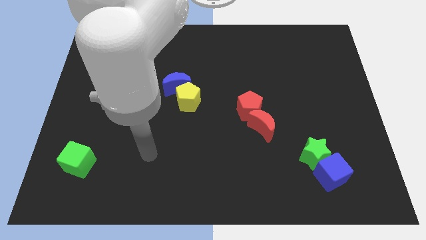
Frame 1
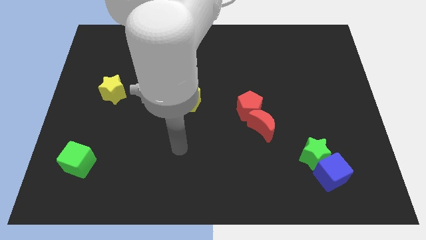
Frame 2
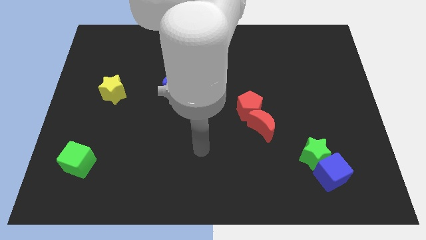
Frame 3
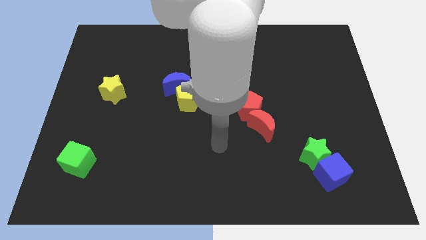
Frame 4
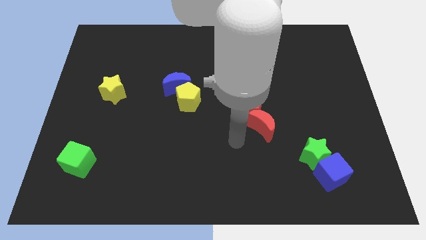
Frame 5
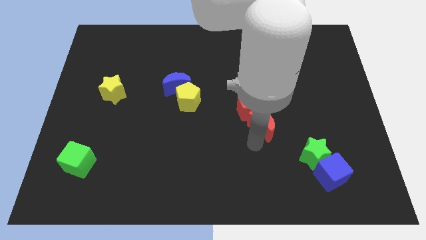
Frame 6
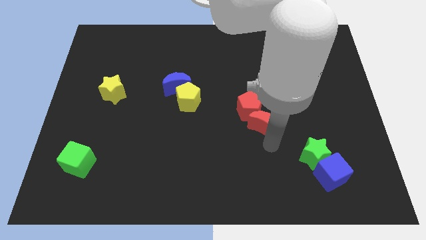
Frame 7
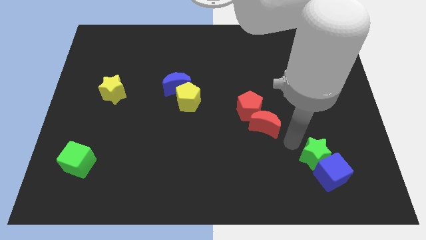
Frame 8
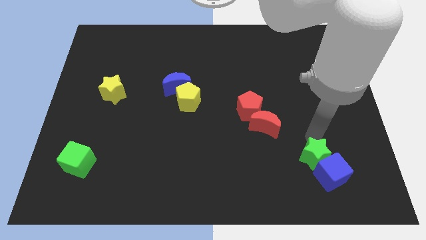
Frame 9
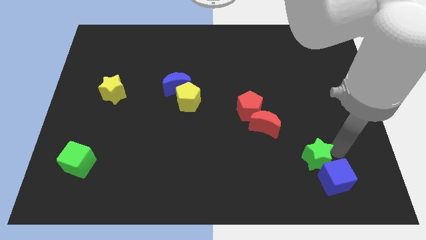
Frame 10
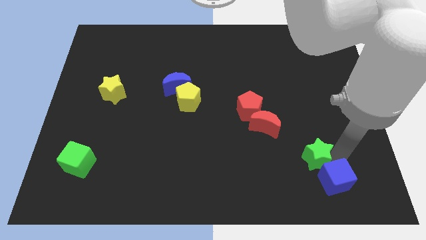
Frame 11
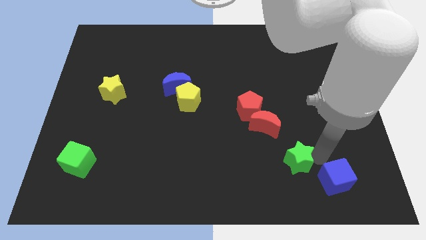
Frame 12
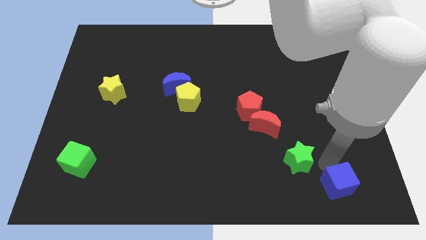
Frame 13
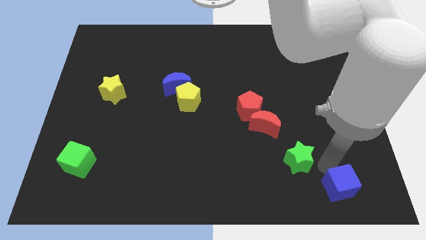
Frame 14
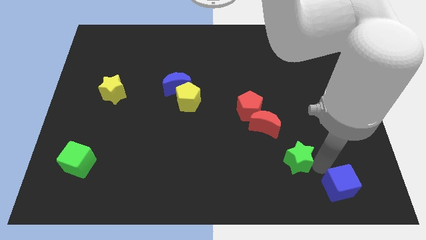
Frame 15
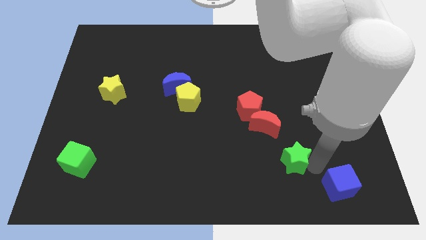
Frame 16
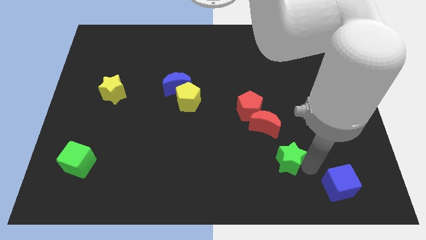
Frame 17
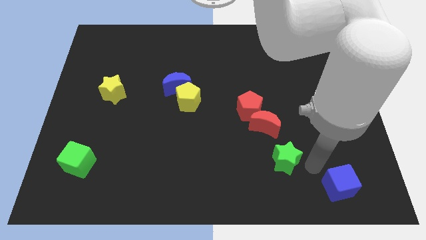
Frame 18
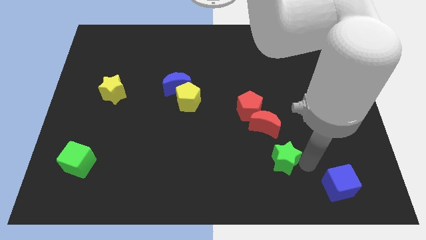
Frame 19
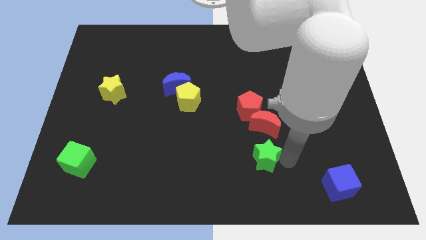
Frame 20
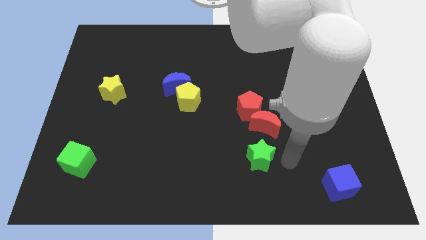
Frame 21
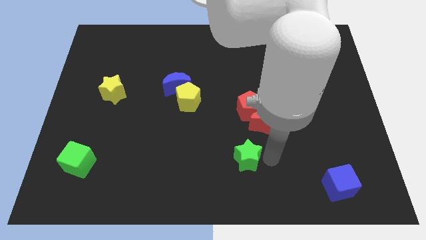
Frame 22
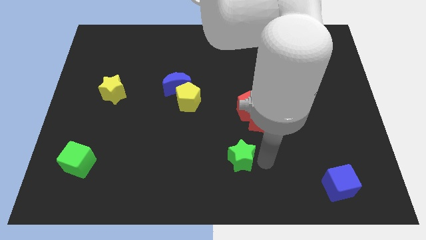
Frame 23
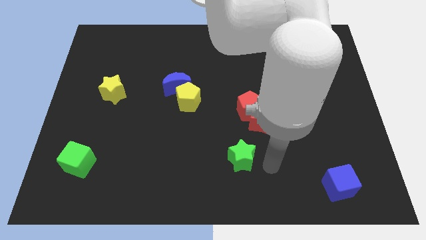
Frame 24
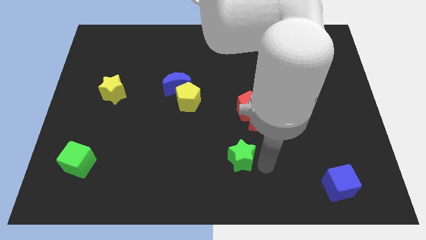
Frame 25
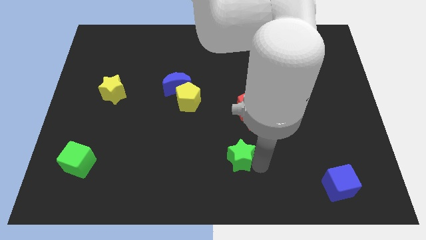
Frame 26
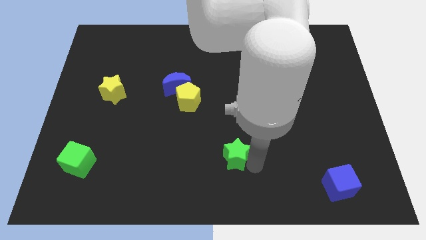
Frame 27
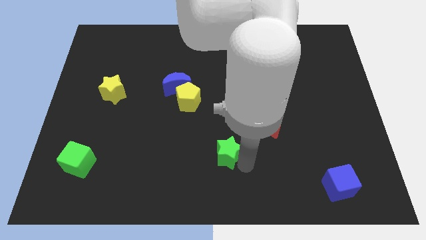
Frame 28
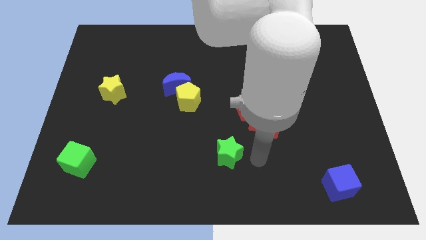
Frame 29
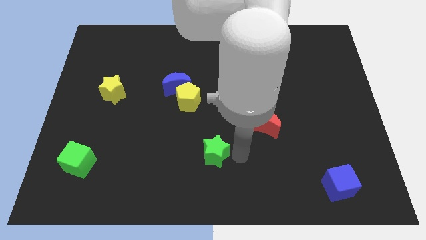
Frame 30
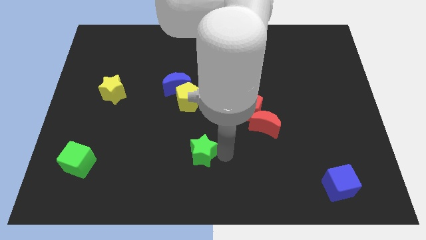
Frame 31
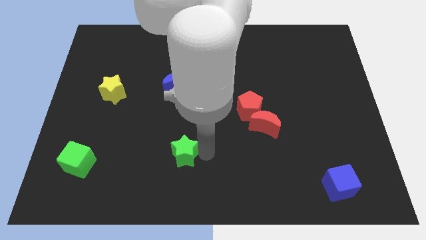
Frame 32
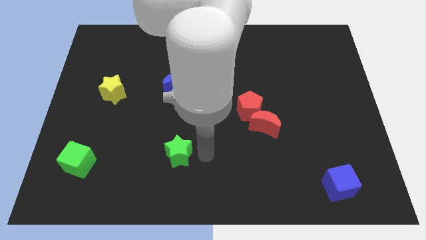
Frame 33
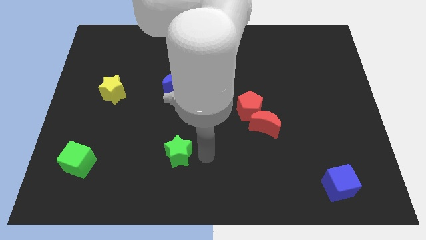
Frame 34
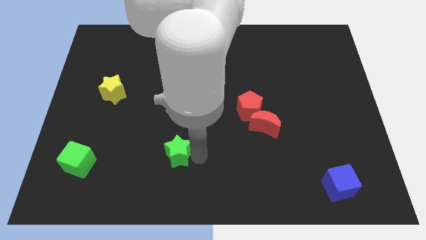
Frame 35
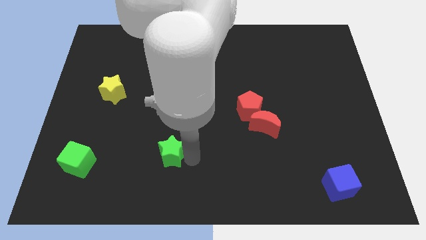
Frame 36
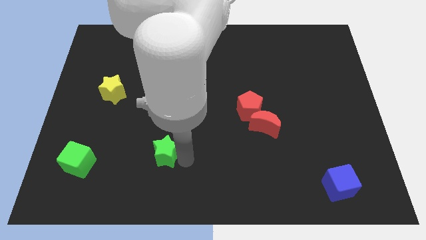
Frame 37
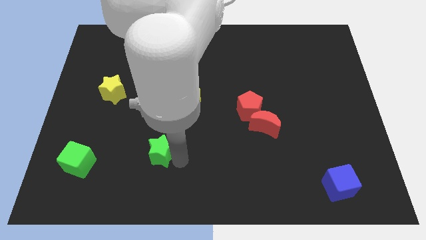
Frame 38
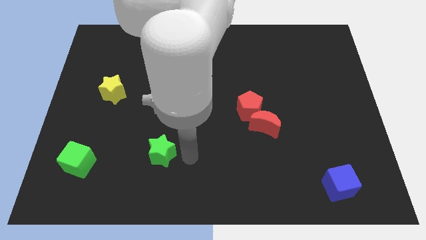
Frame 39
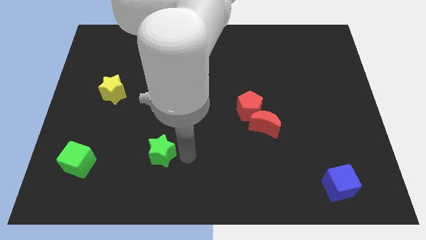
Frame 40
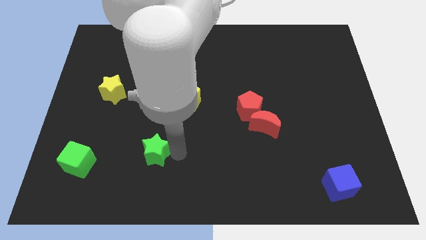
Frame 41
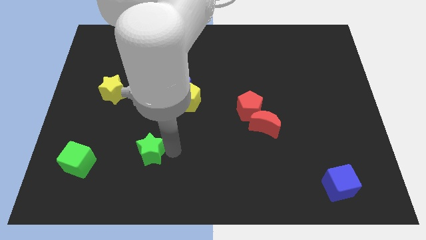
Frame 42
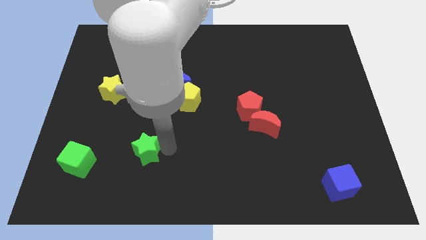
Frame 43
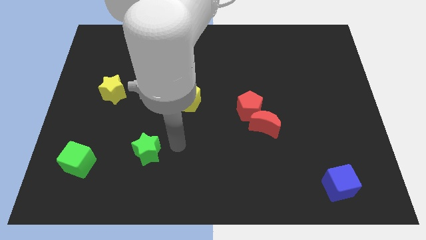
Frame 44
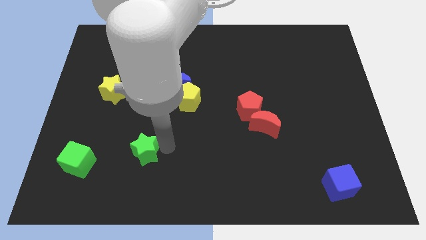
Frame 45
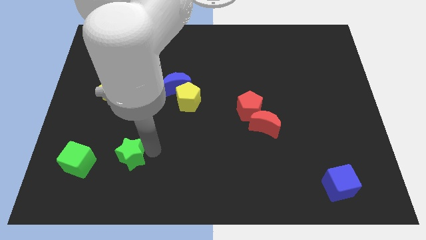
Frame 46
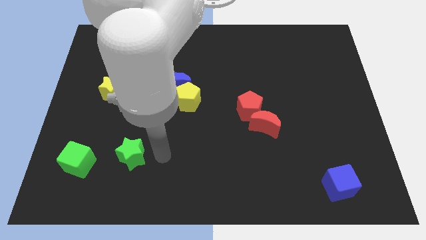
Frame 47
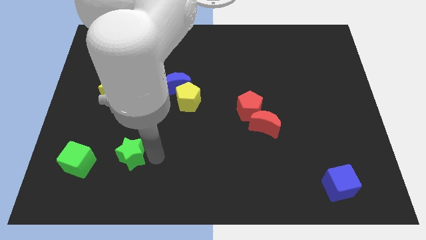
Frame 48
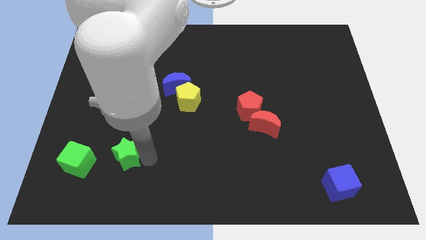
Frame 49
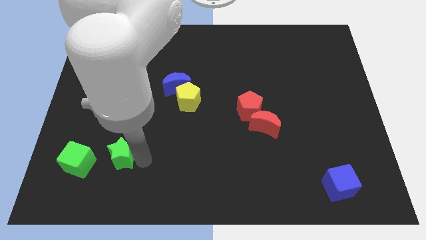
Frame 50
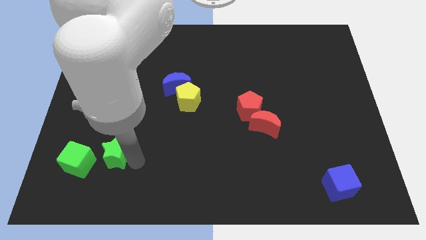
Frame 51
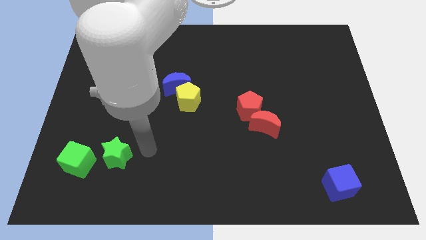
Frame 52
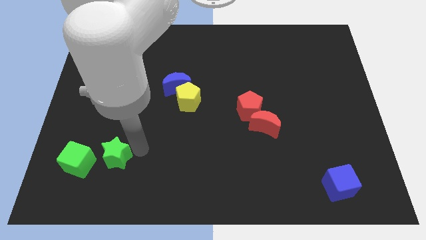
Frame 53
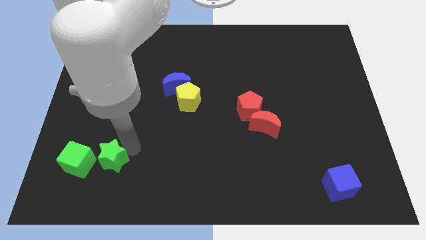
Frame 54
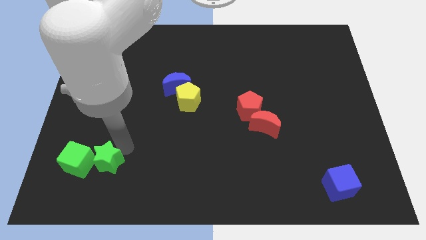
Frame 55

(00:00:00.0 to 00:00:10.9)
slide the green star next to the green cube
